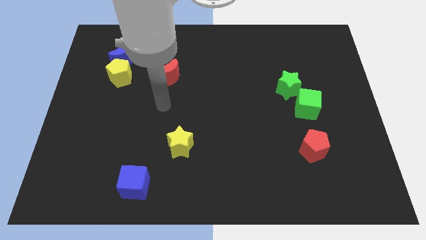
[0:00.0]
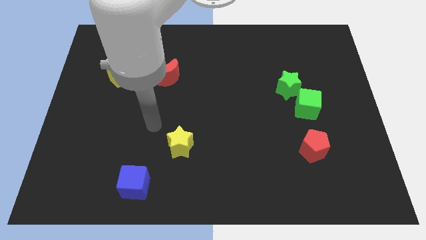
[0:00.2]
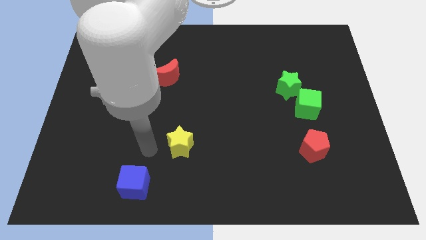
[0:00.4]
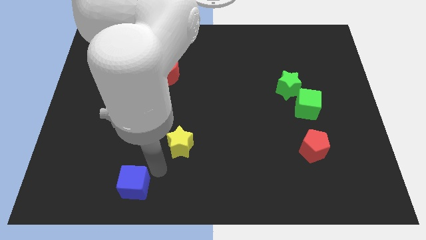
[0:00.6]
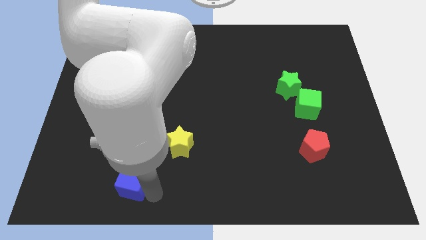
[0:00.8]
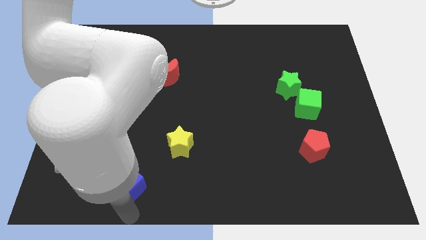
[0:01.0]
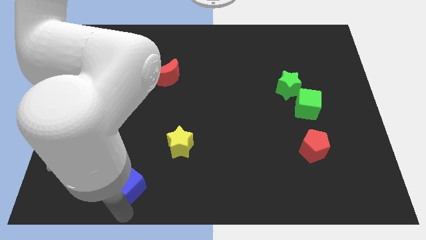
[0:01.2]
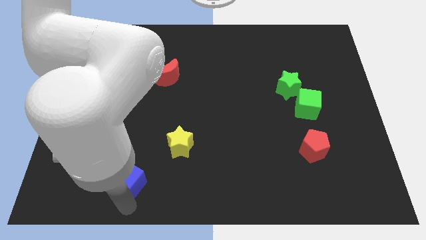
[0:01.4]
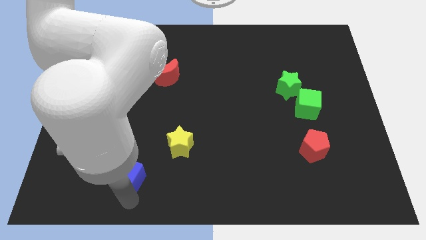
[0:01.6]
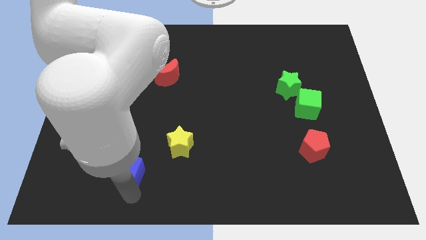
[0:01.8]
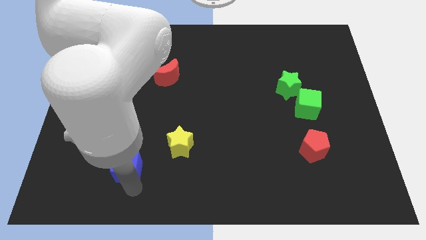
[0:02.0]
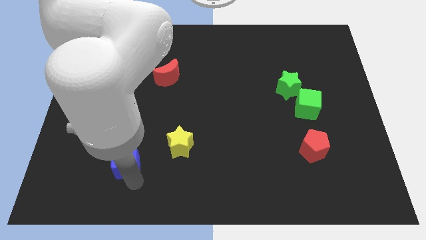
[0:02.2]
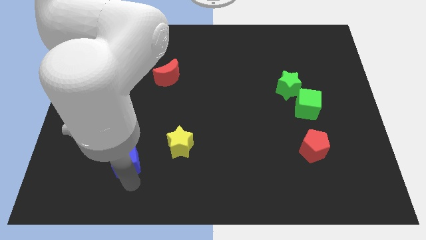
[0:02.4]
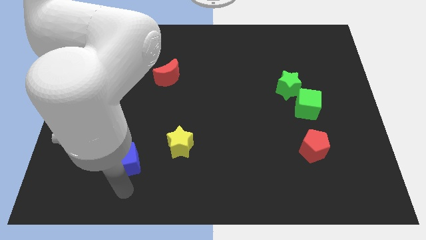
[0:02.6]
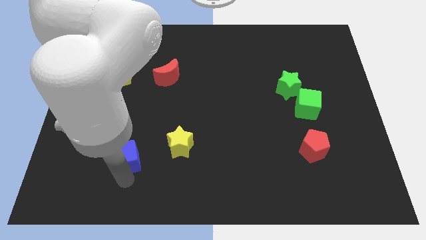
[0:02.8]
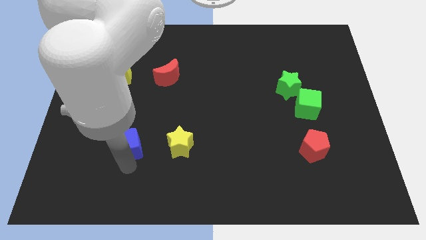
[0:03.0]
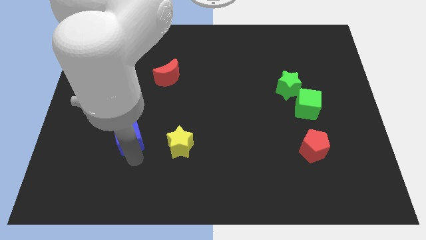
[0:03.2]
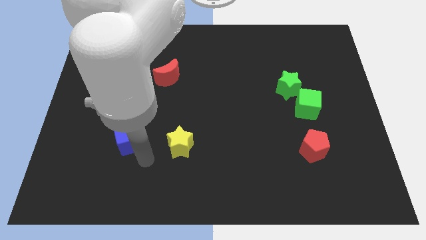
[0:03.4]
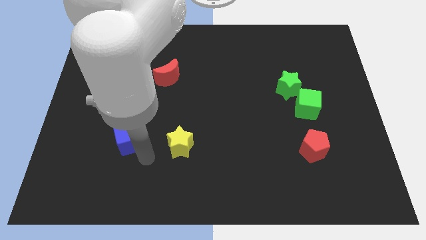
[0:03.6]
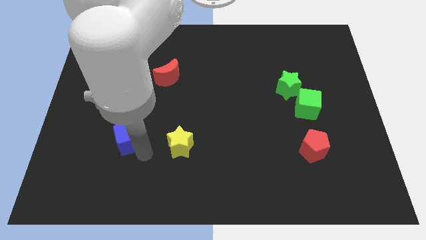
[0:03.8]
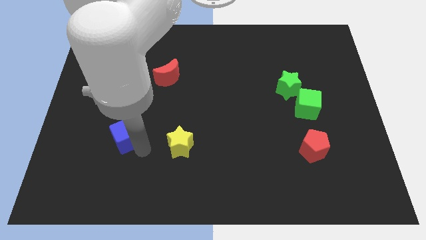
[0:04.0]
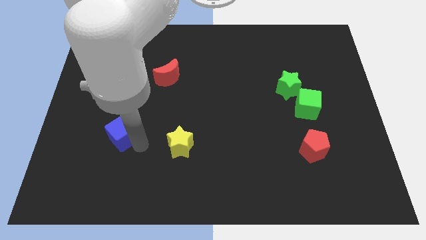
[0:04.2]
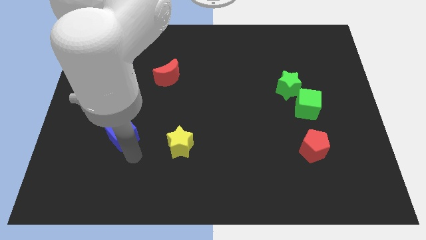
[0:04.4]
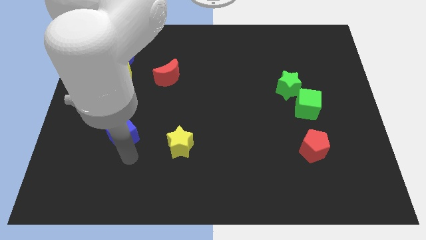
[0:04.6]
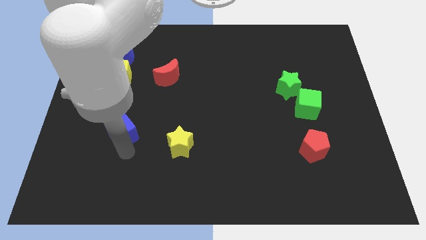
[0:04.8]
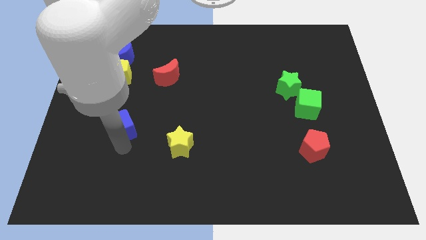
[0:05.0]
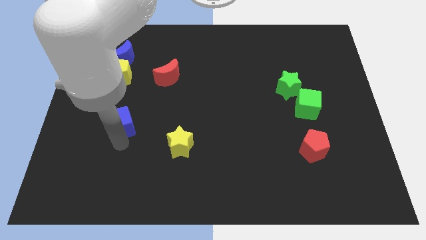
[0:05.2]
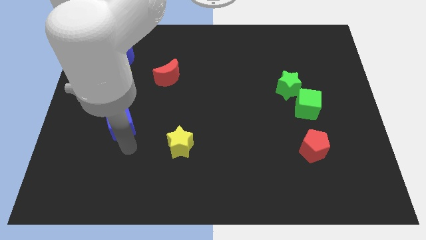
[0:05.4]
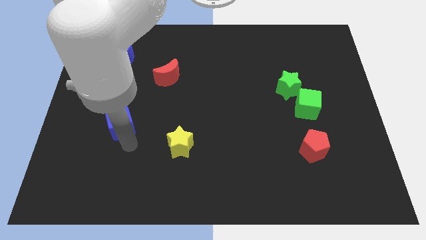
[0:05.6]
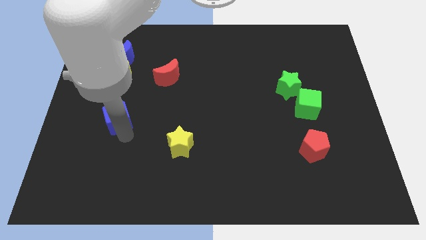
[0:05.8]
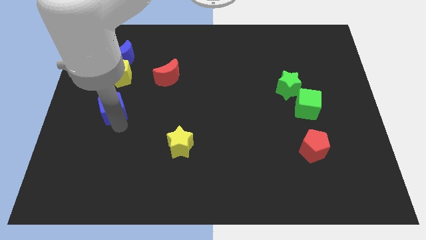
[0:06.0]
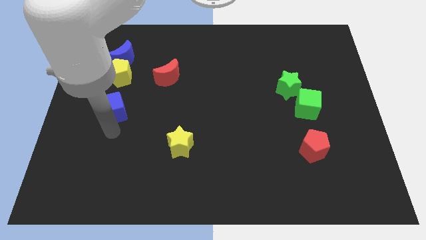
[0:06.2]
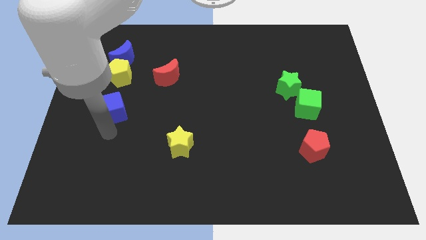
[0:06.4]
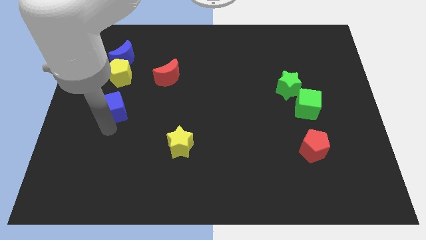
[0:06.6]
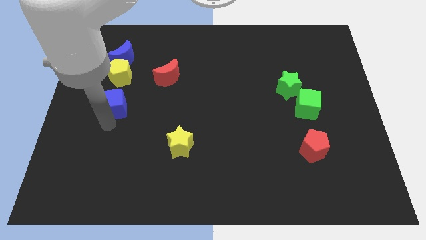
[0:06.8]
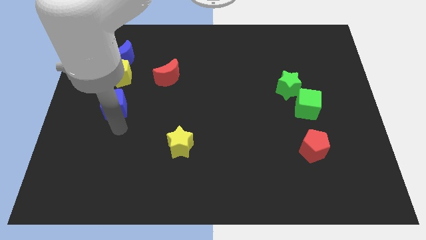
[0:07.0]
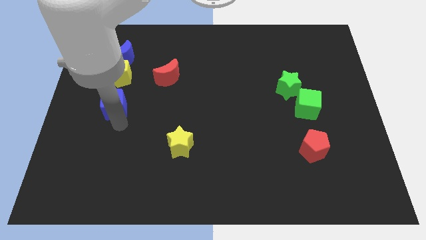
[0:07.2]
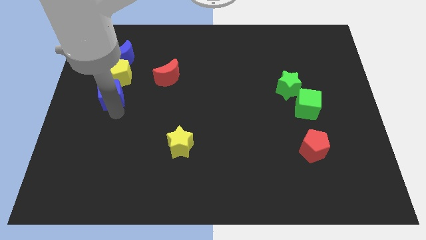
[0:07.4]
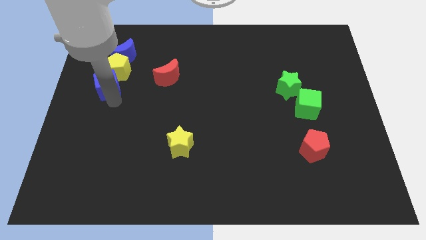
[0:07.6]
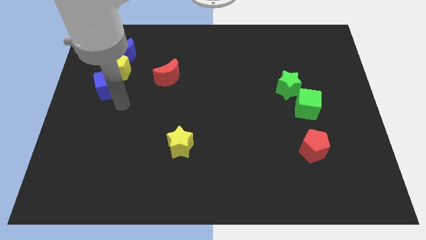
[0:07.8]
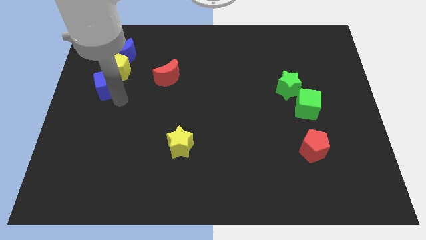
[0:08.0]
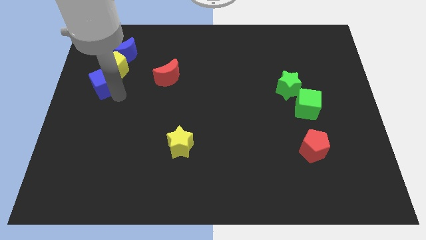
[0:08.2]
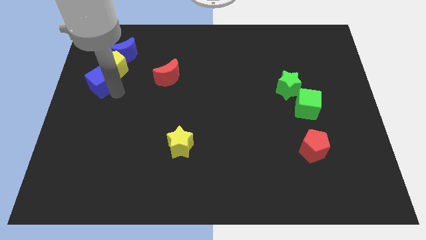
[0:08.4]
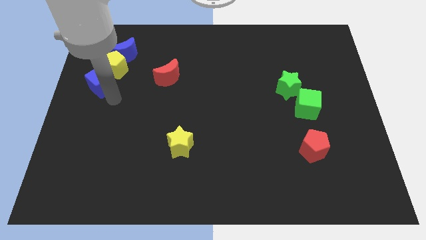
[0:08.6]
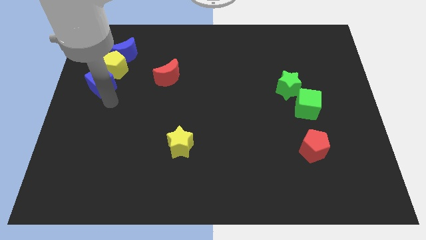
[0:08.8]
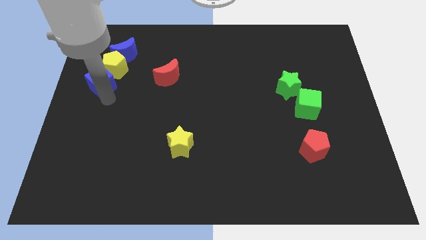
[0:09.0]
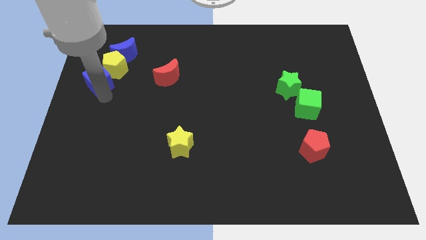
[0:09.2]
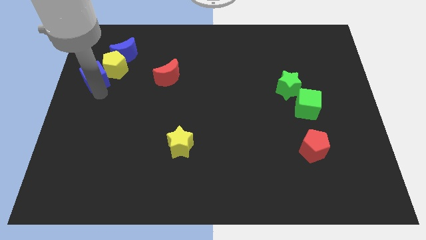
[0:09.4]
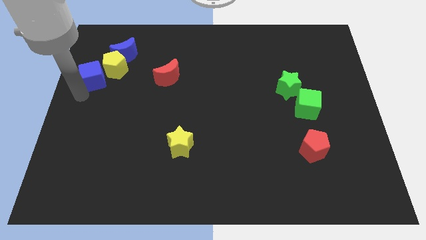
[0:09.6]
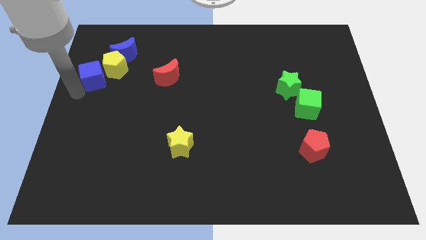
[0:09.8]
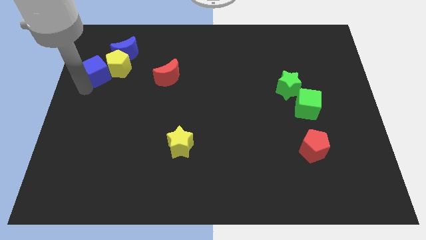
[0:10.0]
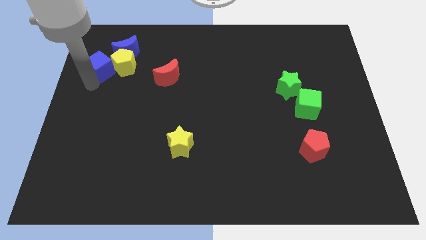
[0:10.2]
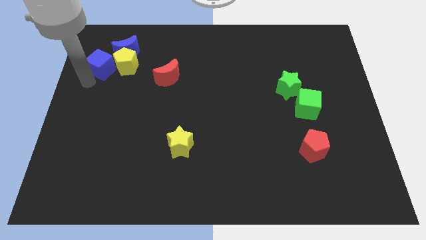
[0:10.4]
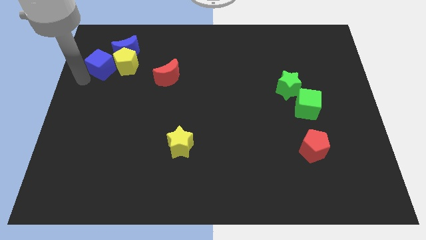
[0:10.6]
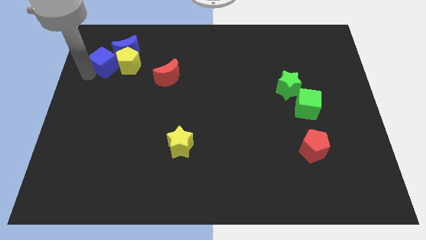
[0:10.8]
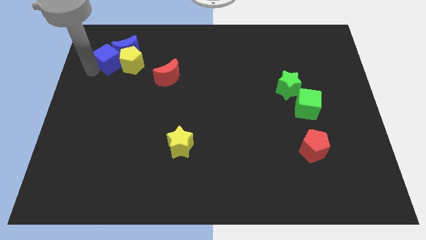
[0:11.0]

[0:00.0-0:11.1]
move the blue cube close to the blue moon

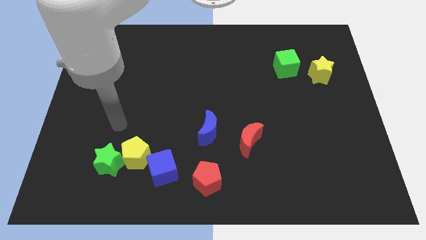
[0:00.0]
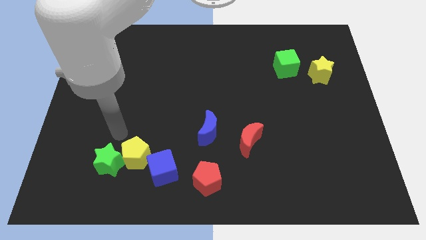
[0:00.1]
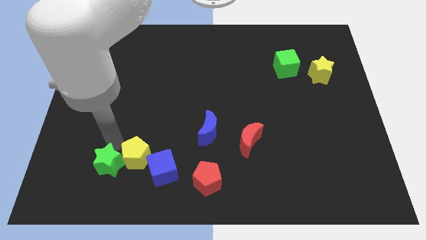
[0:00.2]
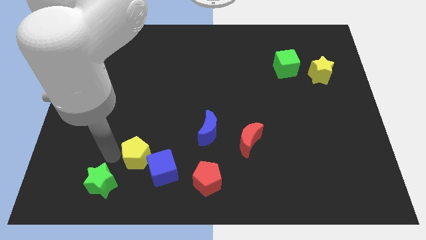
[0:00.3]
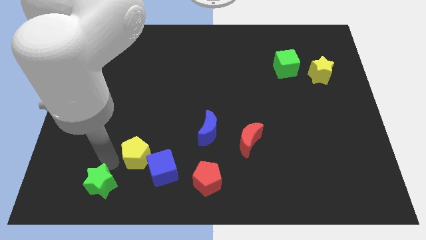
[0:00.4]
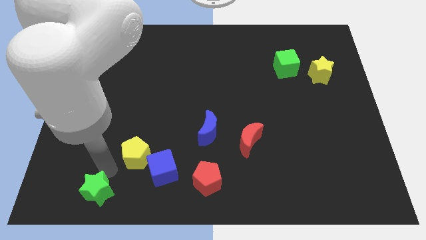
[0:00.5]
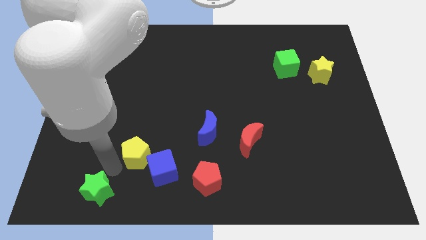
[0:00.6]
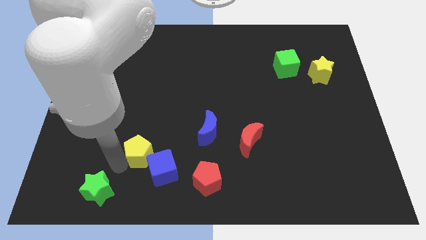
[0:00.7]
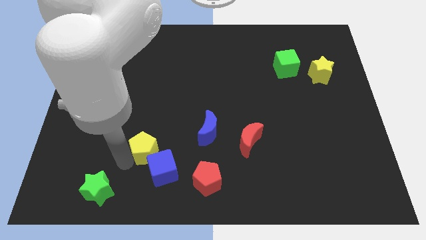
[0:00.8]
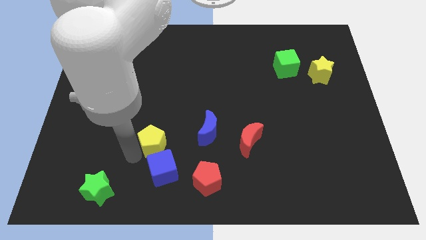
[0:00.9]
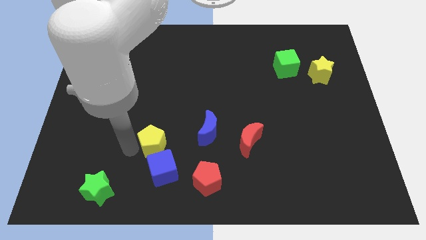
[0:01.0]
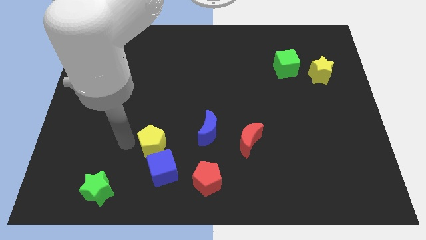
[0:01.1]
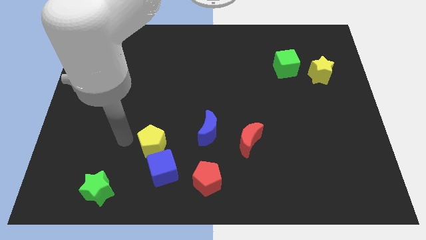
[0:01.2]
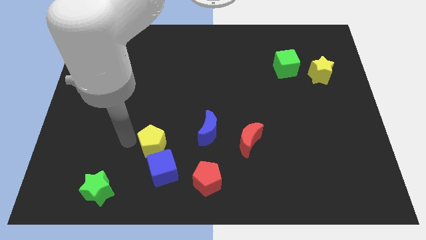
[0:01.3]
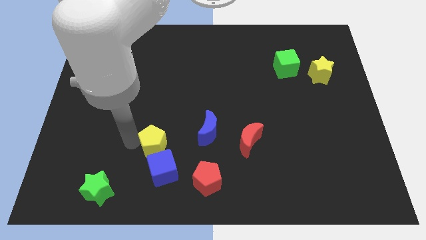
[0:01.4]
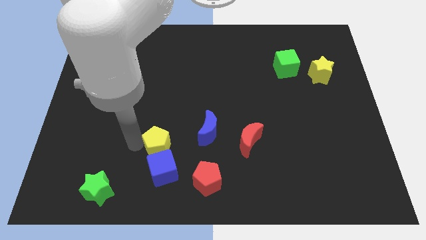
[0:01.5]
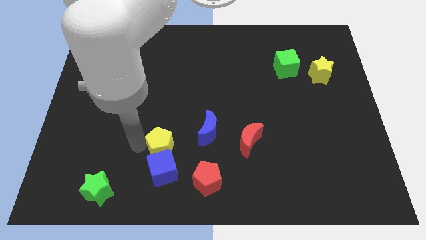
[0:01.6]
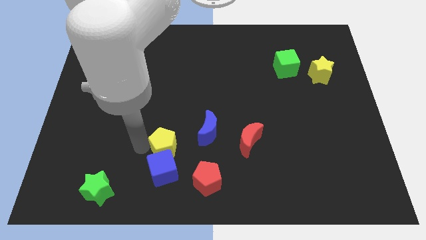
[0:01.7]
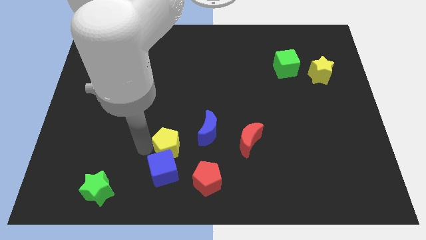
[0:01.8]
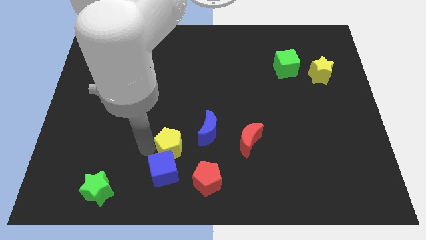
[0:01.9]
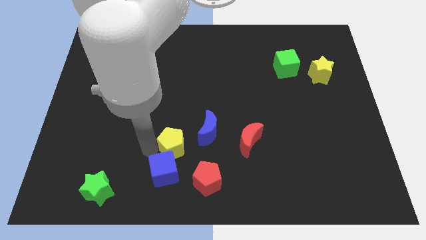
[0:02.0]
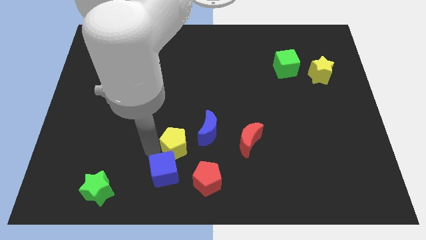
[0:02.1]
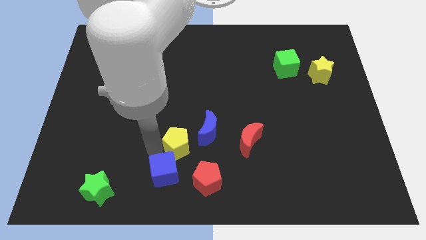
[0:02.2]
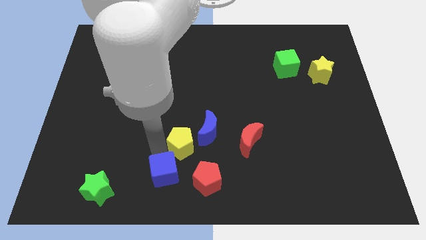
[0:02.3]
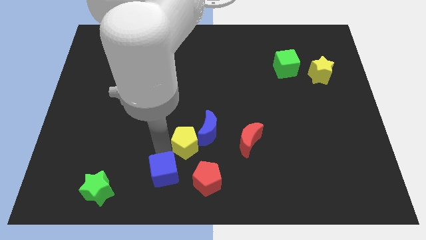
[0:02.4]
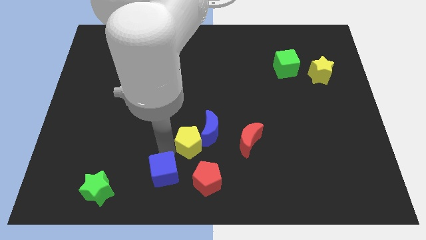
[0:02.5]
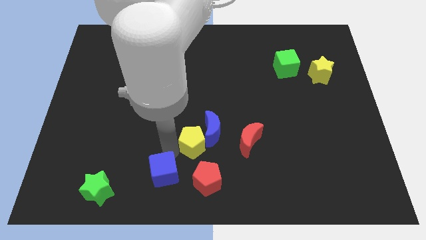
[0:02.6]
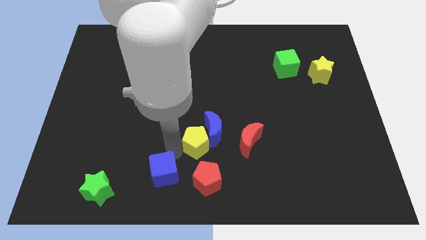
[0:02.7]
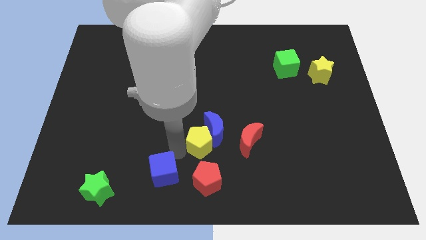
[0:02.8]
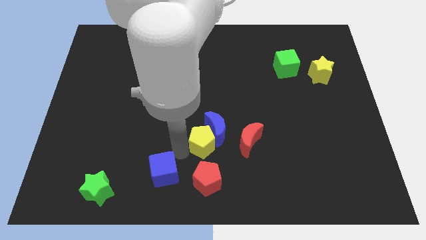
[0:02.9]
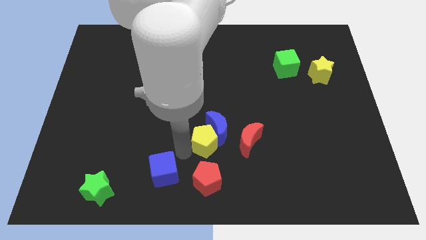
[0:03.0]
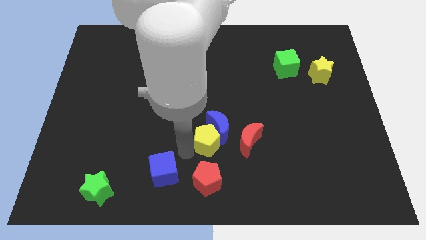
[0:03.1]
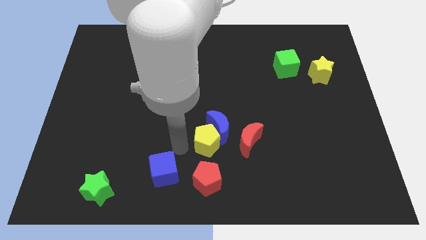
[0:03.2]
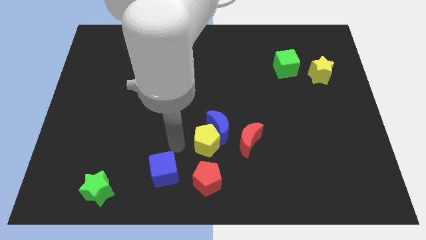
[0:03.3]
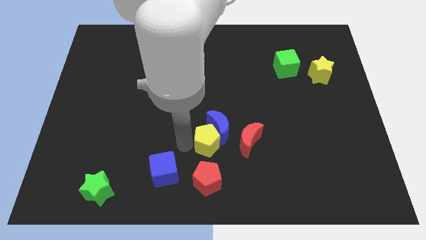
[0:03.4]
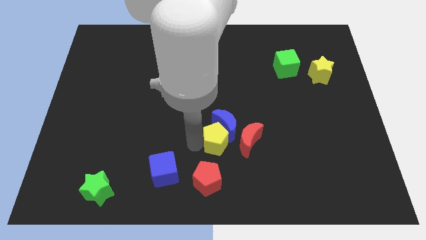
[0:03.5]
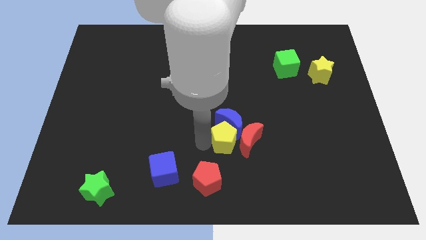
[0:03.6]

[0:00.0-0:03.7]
move the yellow pentagon next to the red moon
